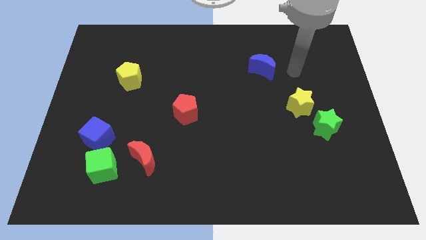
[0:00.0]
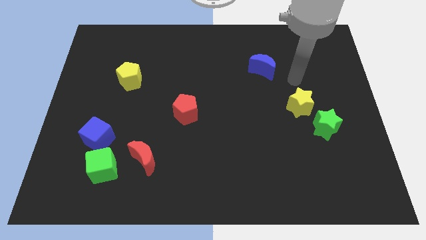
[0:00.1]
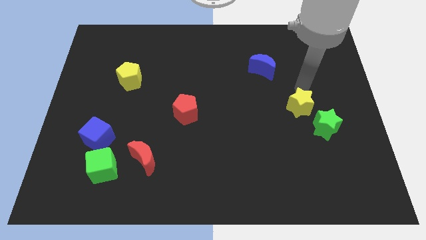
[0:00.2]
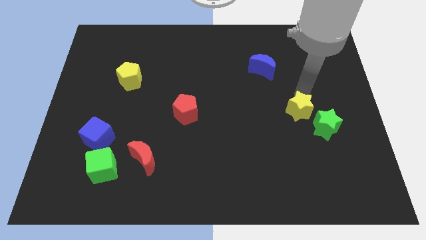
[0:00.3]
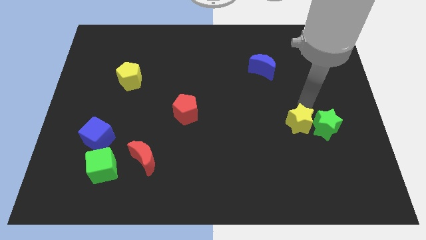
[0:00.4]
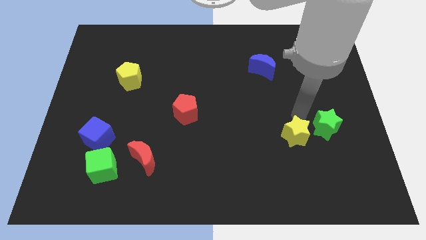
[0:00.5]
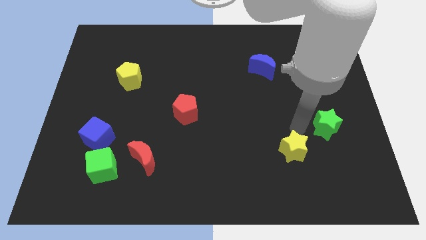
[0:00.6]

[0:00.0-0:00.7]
pull the green star apart from the yellow star

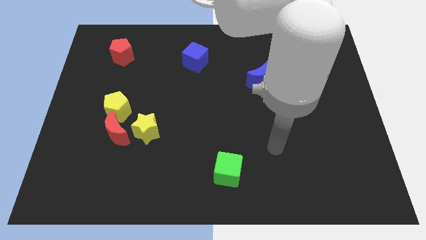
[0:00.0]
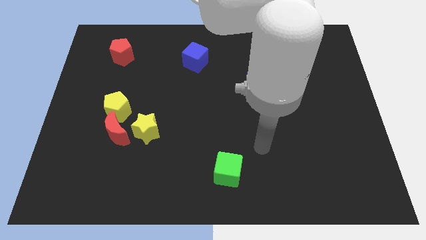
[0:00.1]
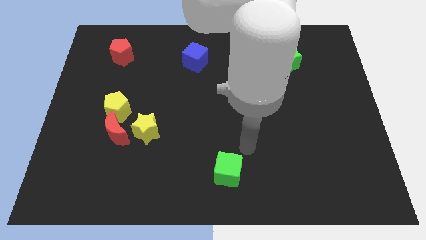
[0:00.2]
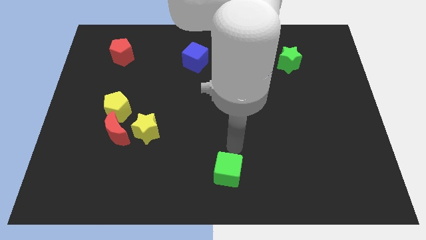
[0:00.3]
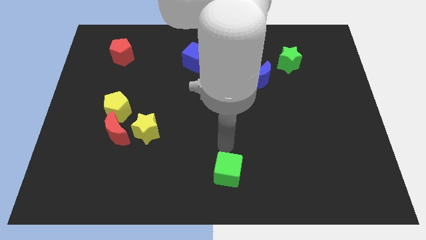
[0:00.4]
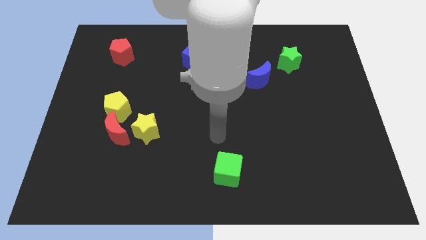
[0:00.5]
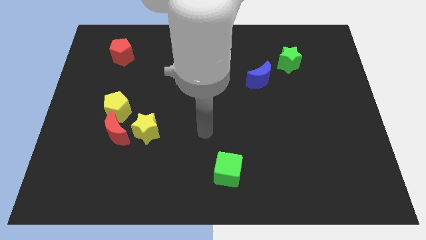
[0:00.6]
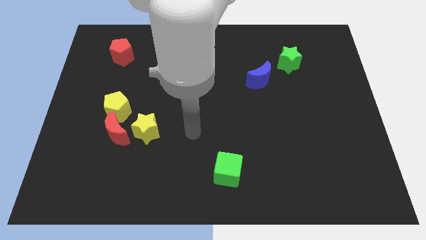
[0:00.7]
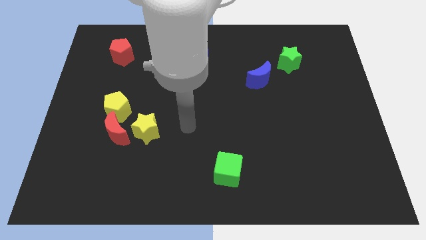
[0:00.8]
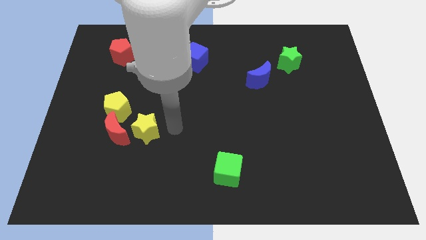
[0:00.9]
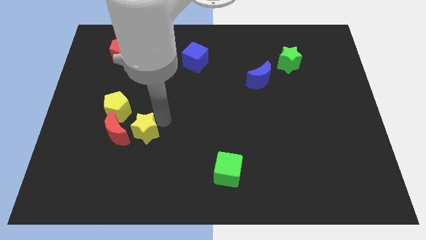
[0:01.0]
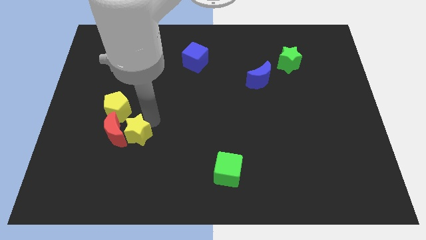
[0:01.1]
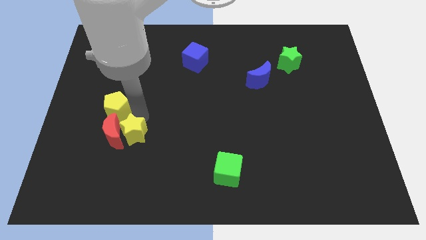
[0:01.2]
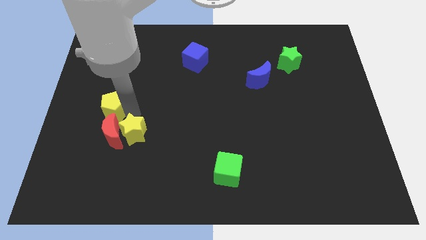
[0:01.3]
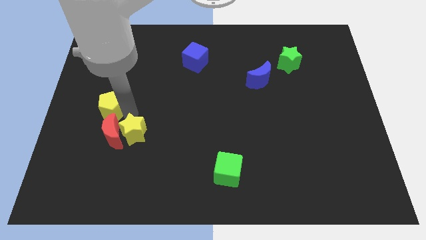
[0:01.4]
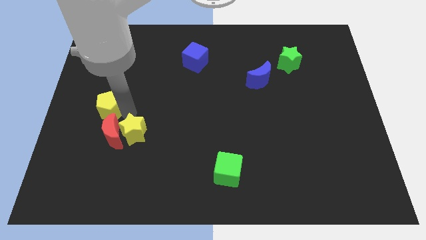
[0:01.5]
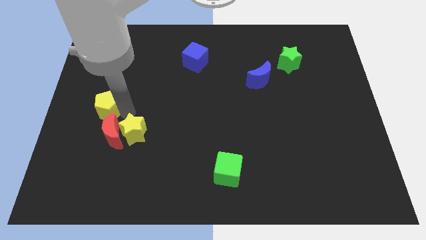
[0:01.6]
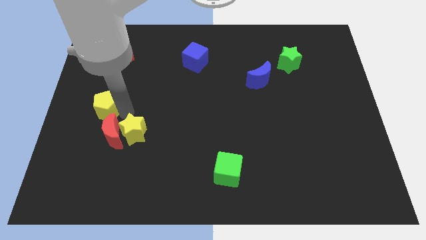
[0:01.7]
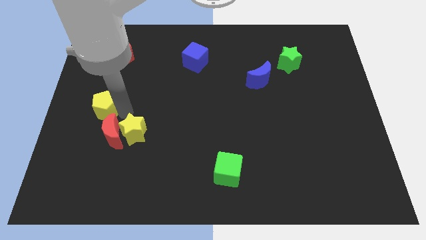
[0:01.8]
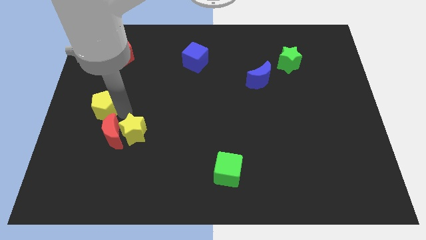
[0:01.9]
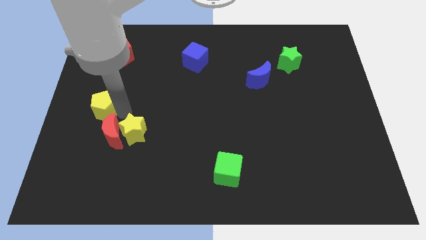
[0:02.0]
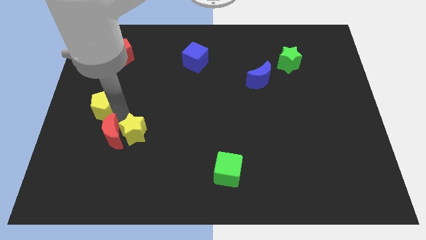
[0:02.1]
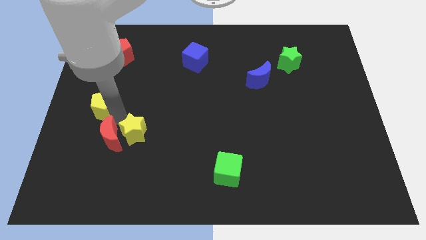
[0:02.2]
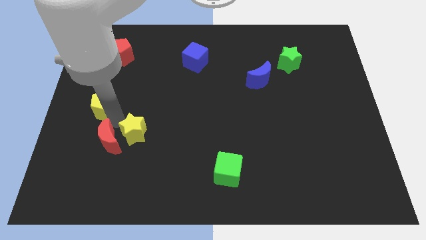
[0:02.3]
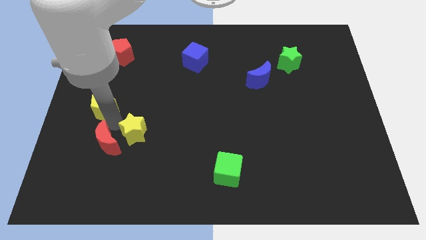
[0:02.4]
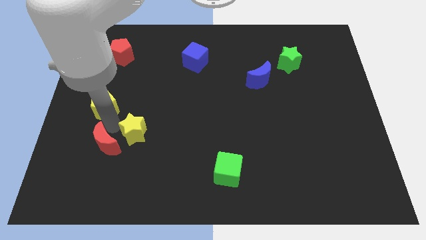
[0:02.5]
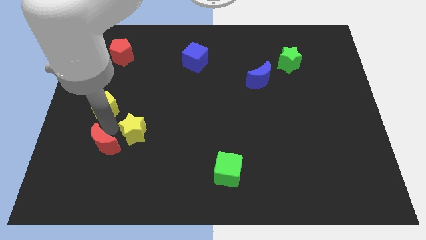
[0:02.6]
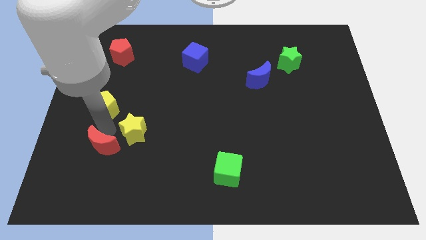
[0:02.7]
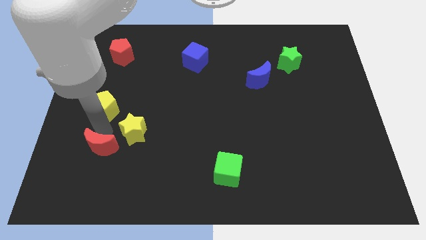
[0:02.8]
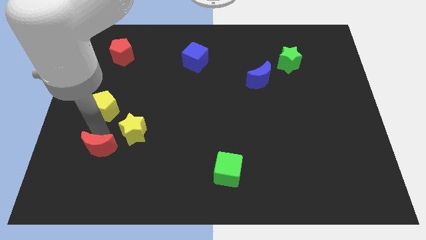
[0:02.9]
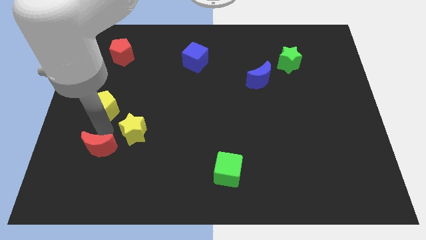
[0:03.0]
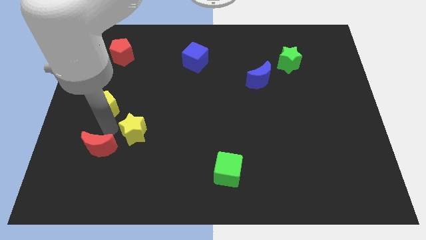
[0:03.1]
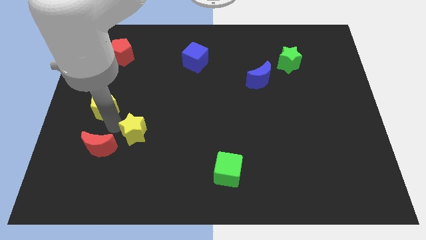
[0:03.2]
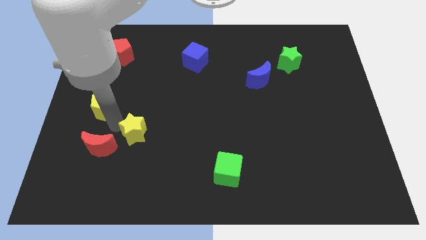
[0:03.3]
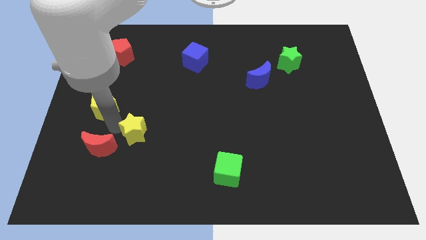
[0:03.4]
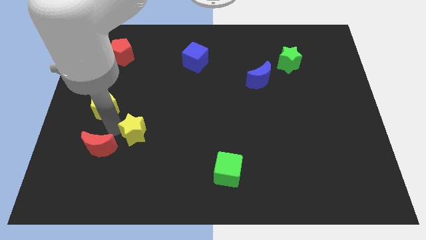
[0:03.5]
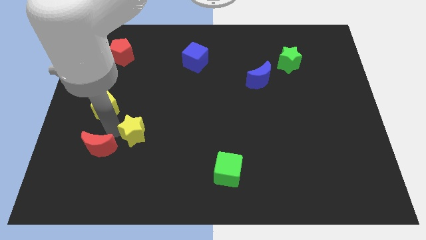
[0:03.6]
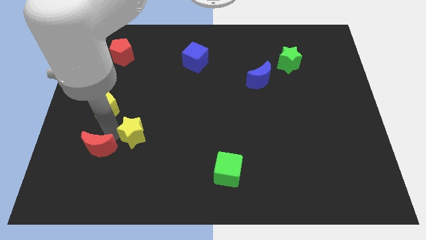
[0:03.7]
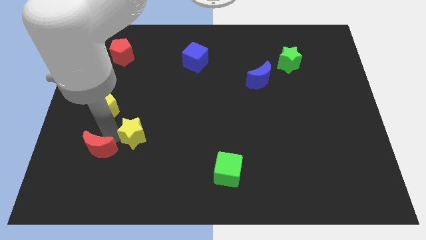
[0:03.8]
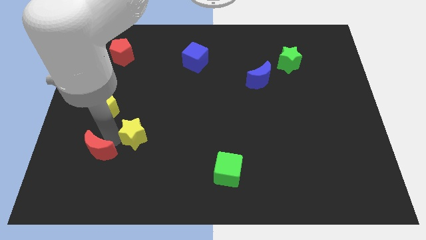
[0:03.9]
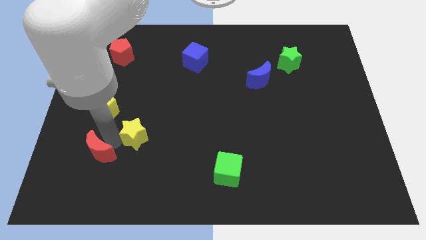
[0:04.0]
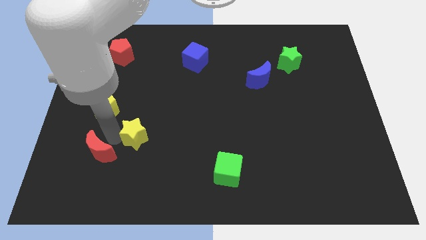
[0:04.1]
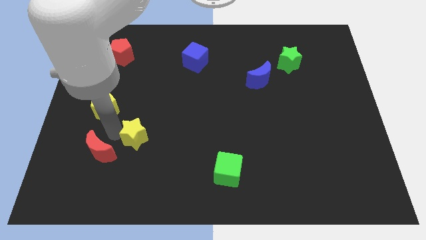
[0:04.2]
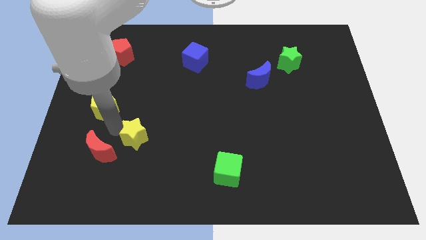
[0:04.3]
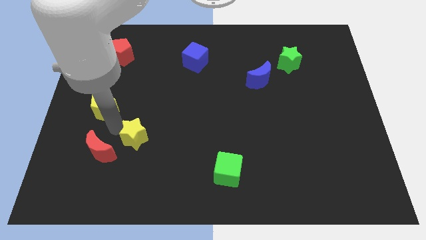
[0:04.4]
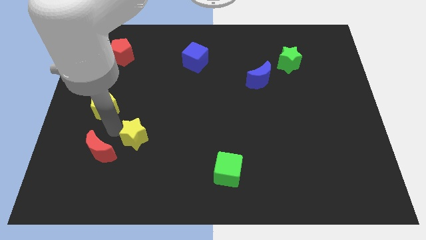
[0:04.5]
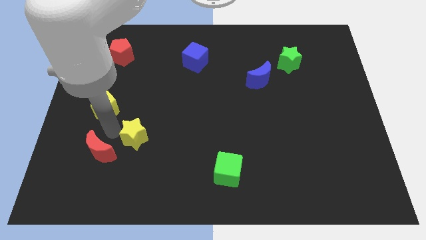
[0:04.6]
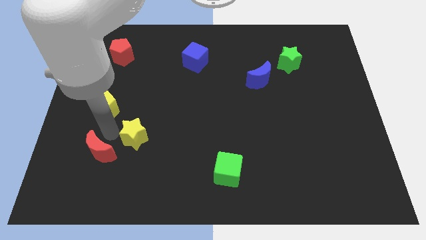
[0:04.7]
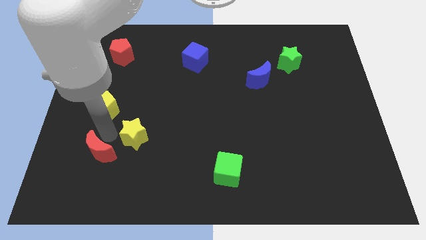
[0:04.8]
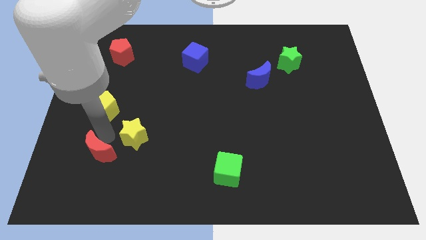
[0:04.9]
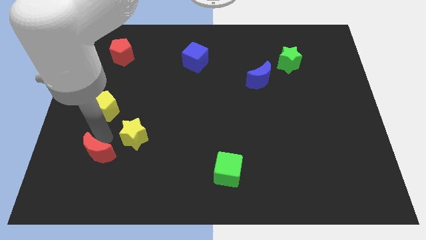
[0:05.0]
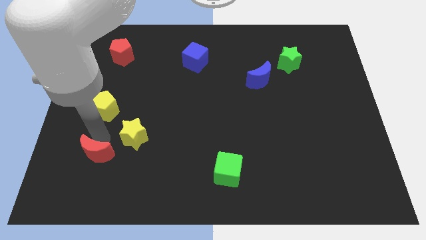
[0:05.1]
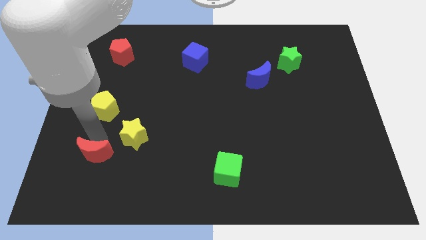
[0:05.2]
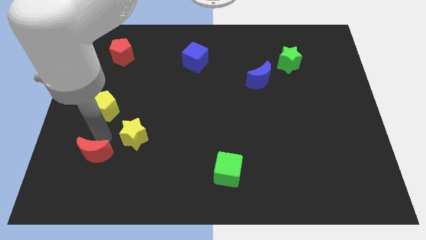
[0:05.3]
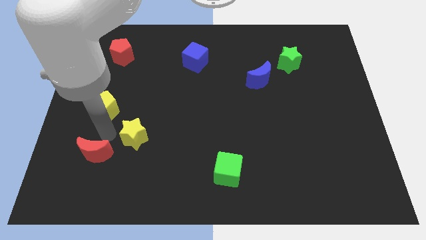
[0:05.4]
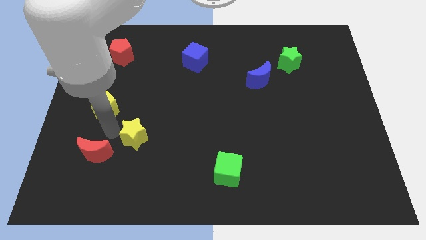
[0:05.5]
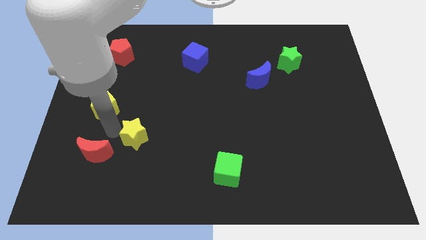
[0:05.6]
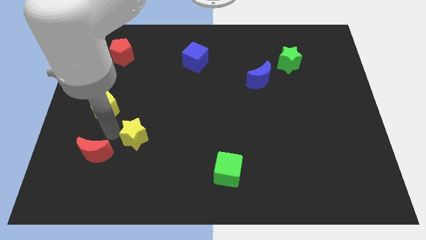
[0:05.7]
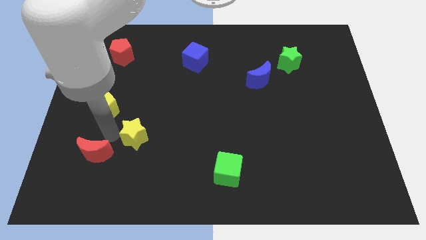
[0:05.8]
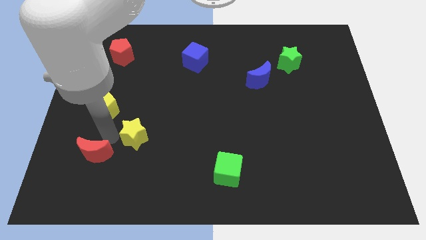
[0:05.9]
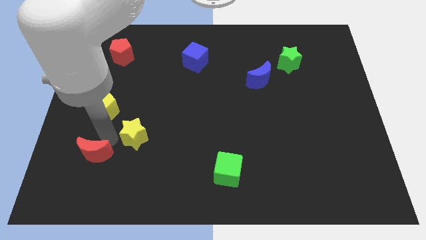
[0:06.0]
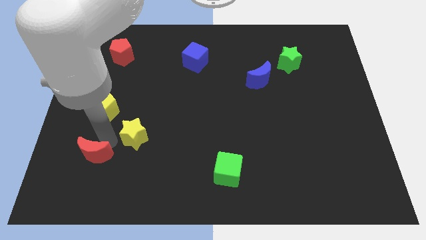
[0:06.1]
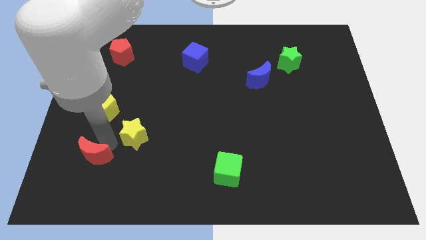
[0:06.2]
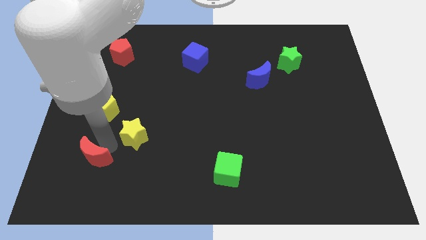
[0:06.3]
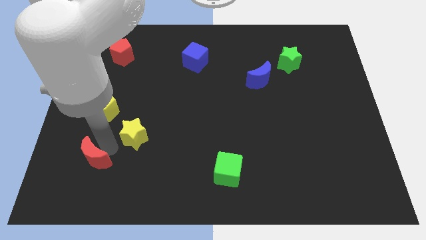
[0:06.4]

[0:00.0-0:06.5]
separate the red moon from the yellow pentagon and yellow star

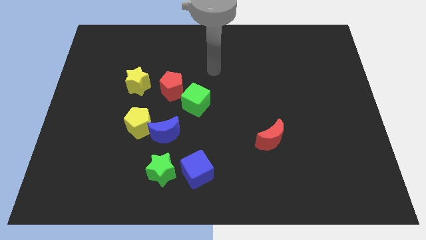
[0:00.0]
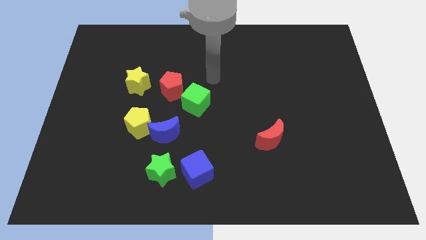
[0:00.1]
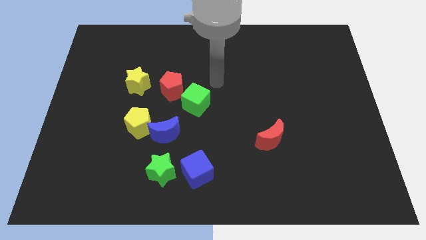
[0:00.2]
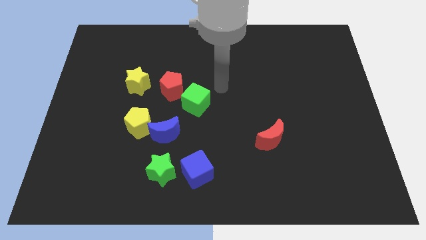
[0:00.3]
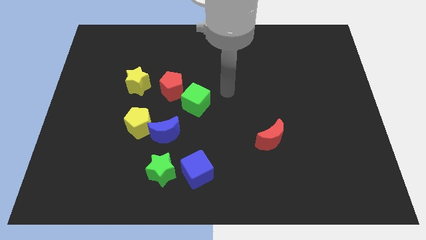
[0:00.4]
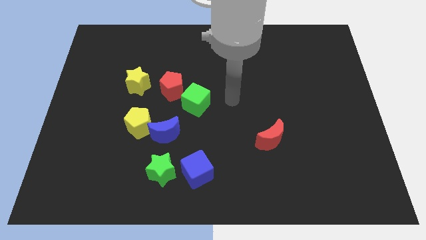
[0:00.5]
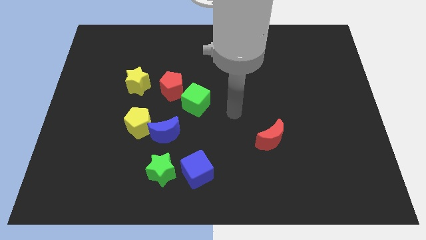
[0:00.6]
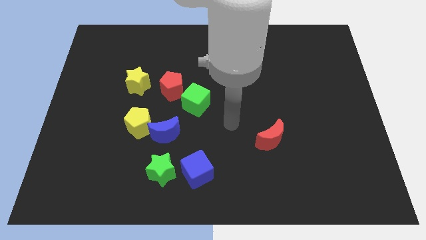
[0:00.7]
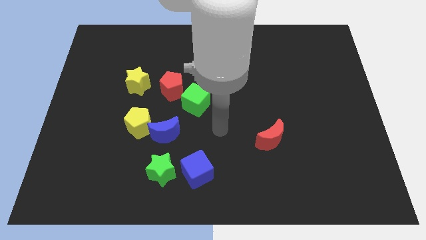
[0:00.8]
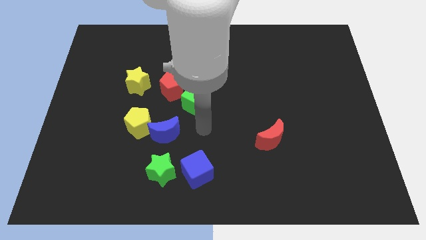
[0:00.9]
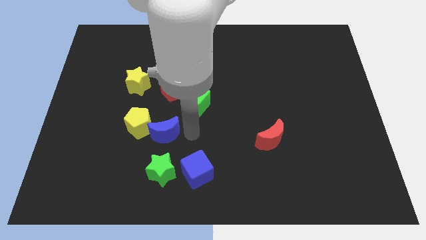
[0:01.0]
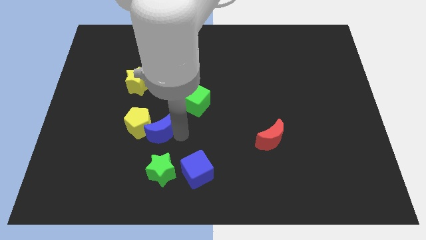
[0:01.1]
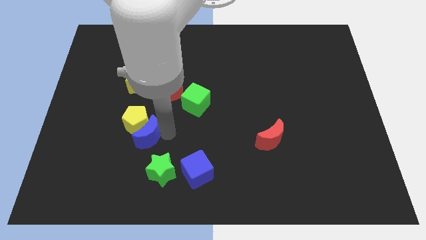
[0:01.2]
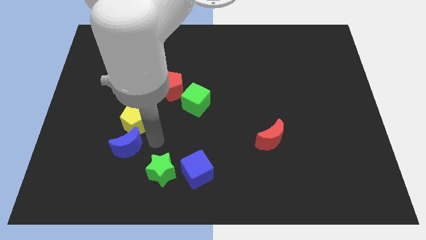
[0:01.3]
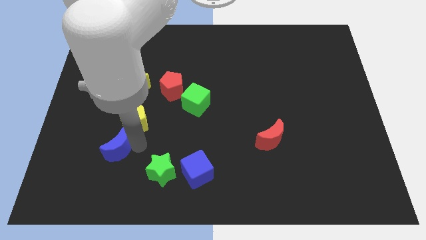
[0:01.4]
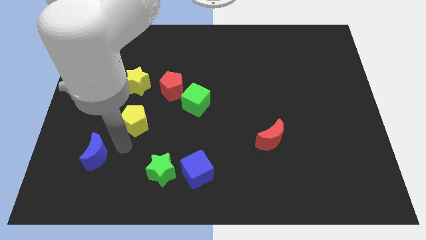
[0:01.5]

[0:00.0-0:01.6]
move the yellow pentagon away from the blue moon

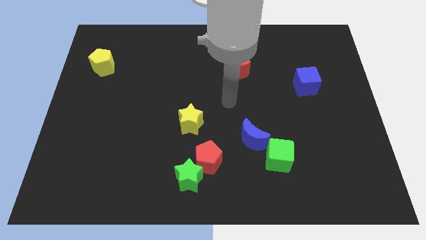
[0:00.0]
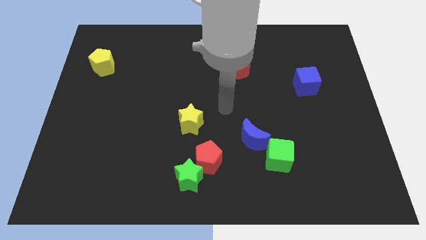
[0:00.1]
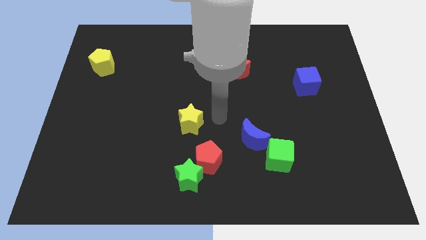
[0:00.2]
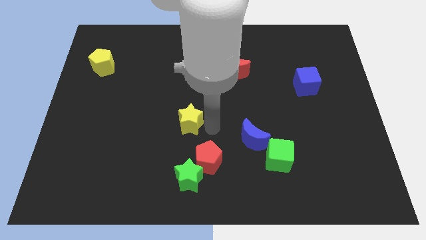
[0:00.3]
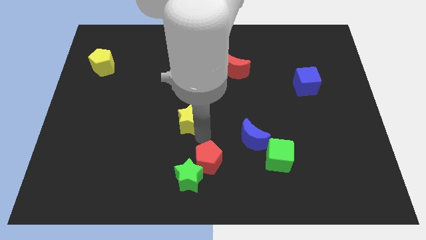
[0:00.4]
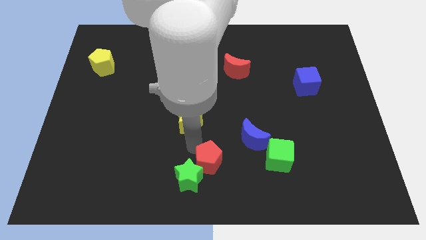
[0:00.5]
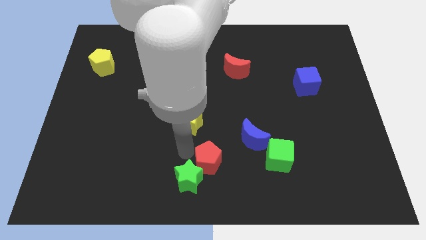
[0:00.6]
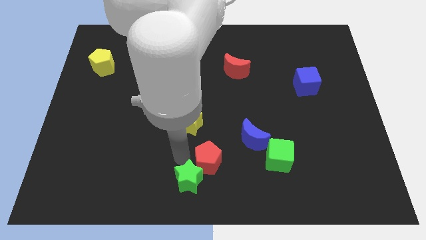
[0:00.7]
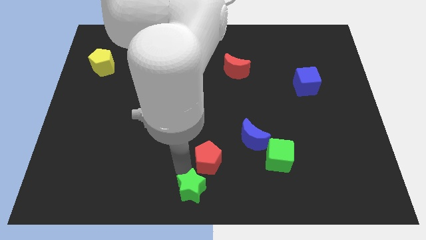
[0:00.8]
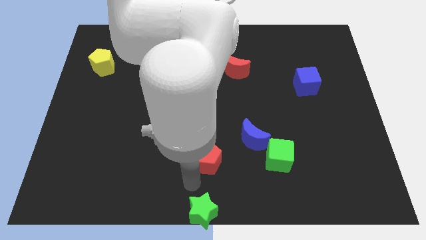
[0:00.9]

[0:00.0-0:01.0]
move the red pentagon away from the green star
